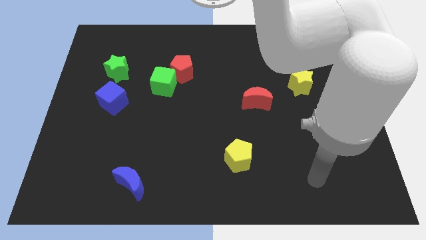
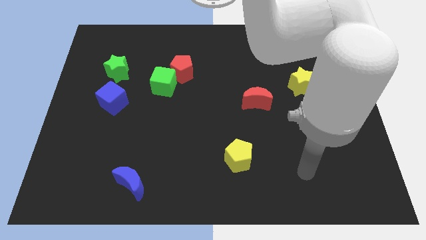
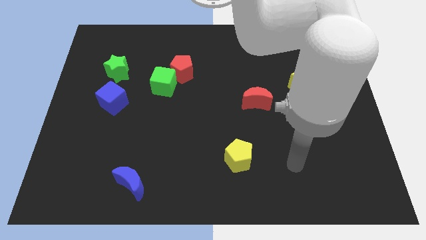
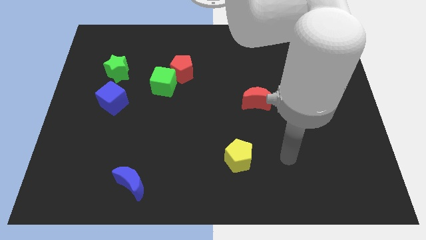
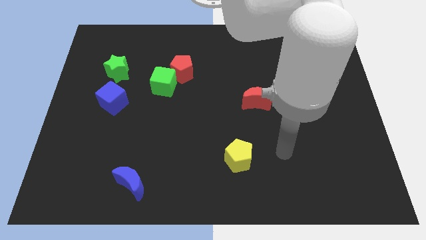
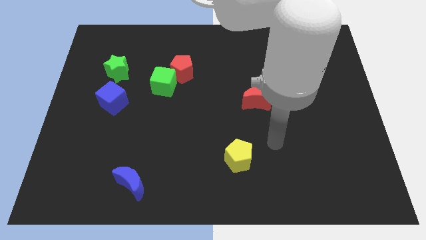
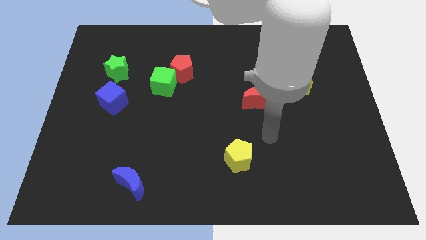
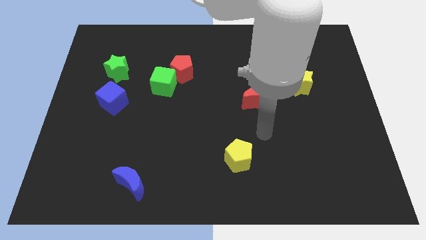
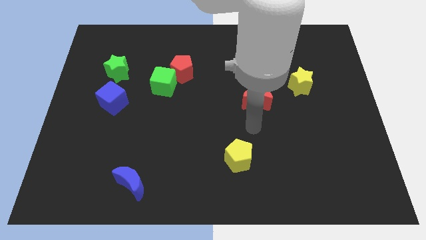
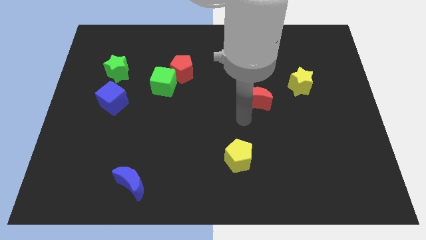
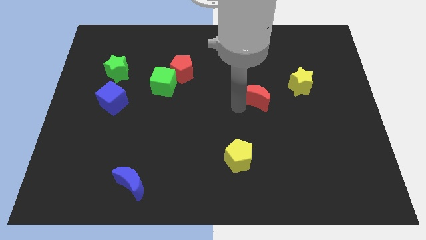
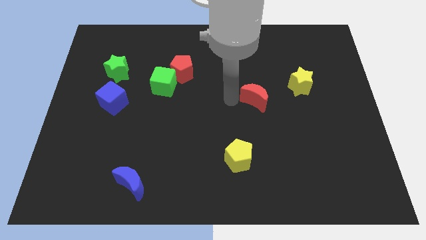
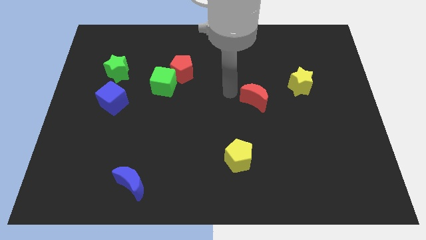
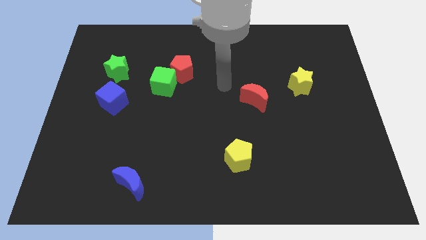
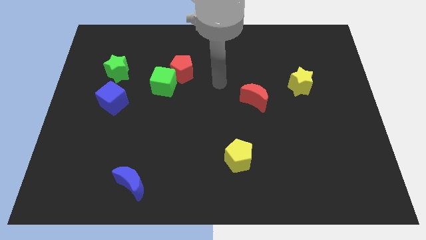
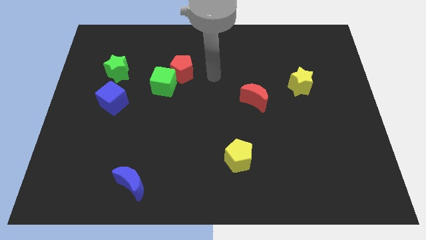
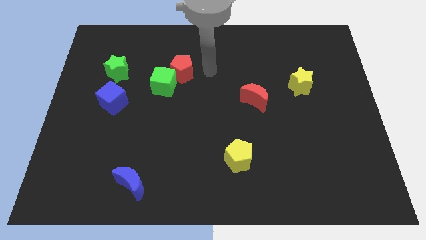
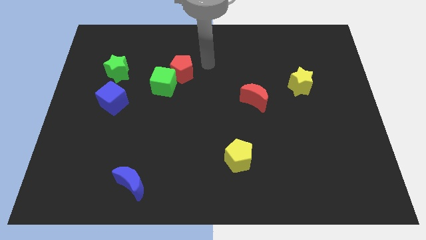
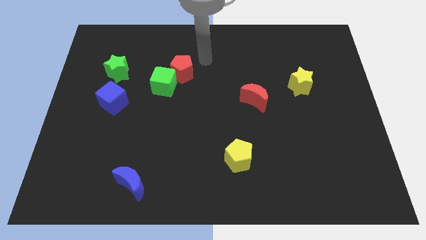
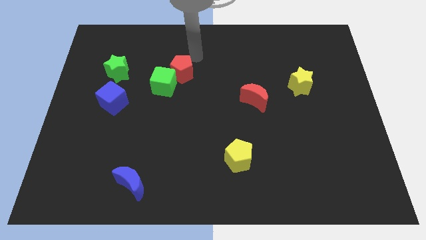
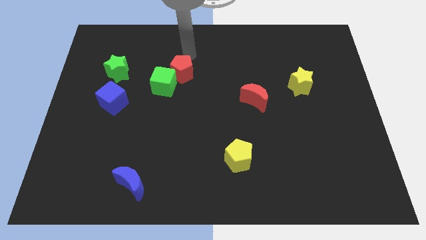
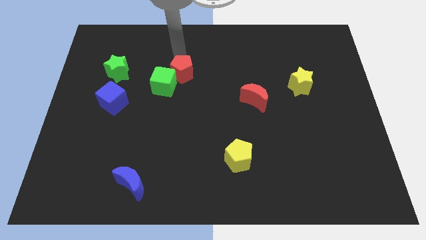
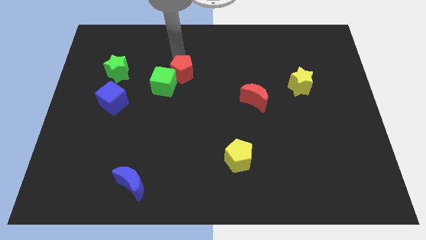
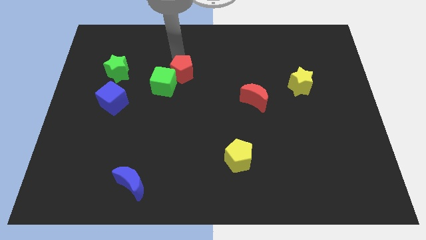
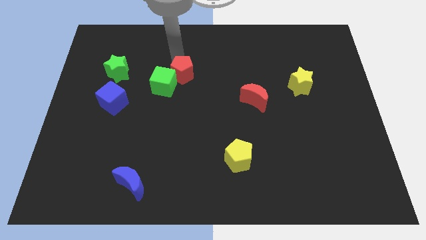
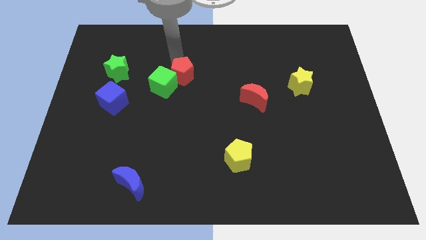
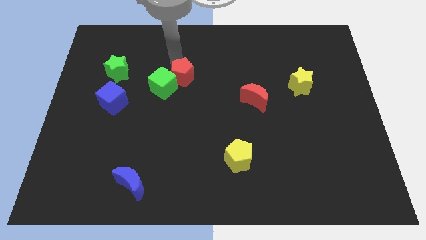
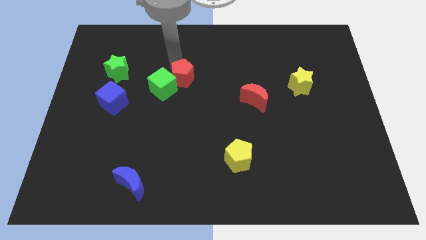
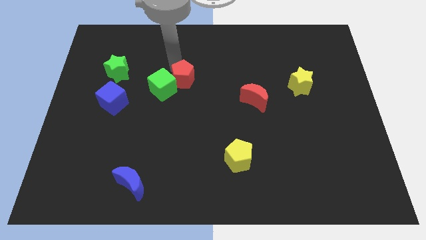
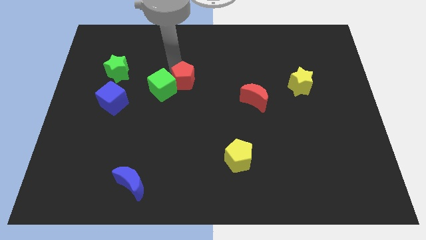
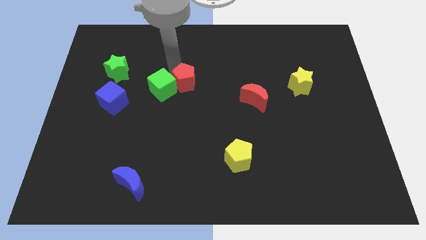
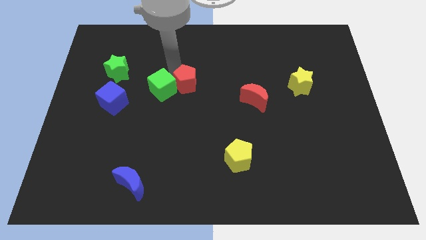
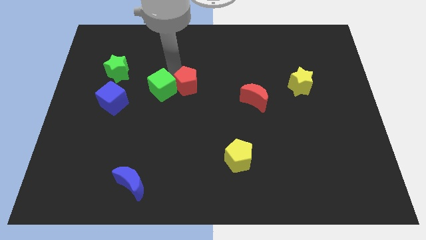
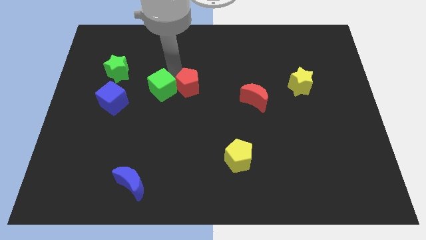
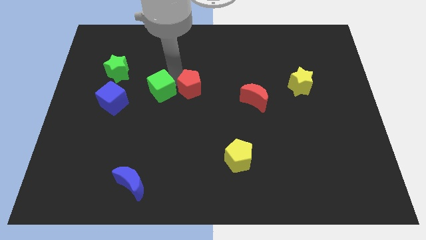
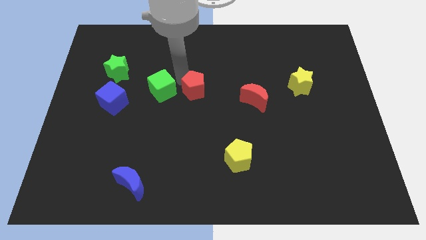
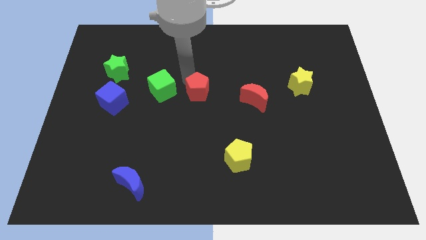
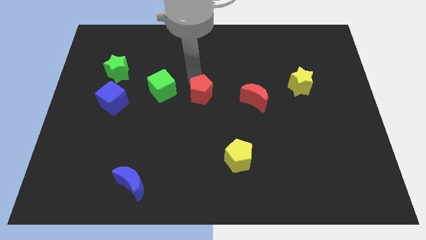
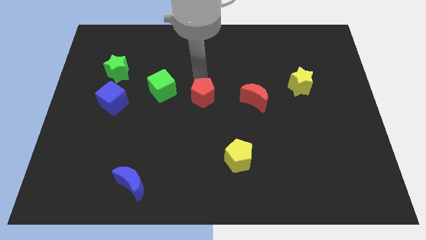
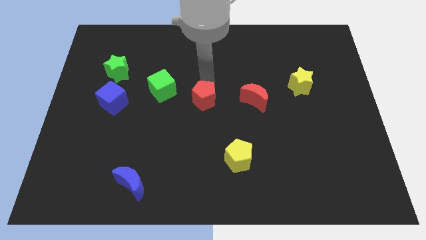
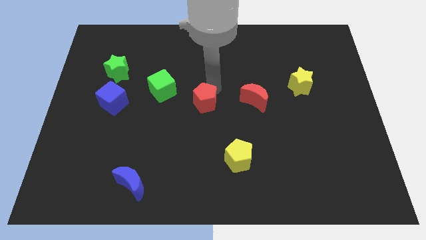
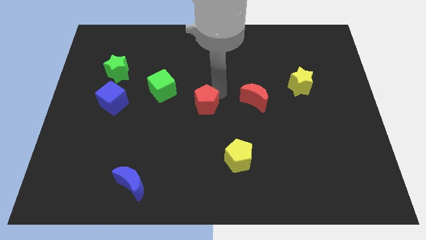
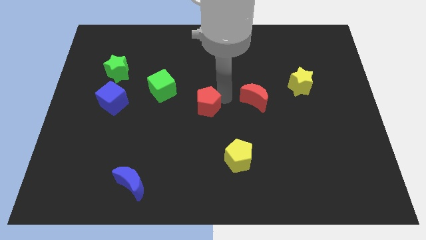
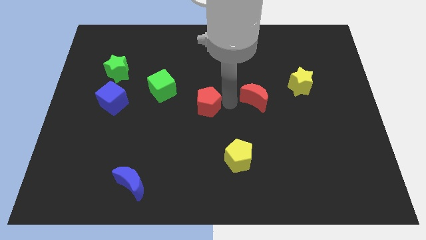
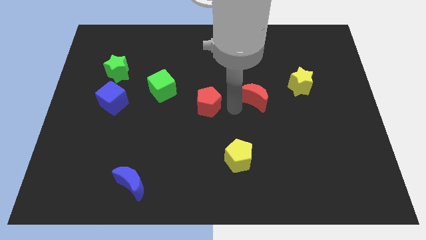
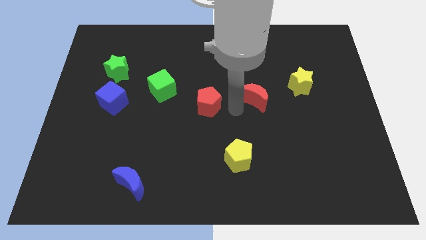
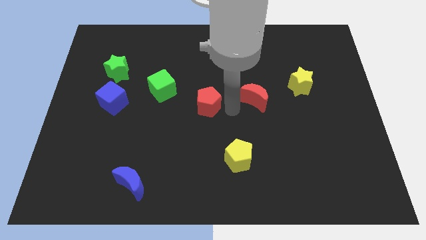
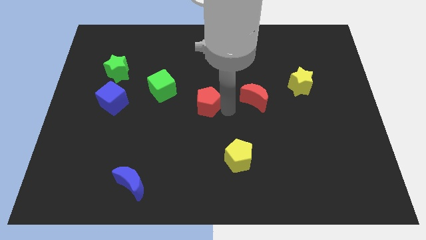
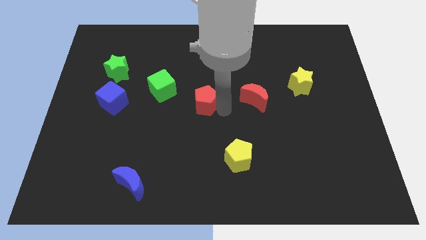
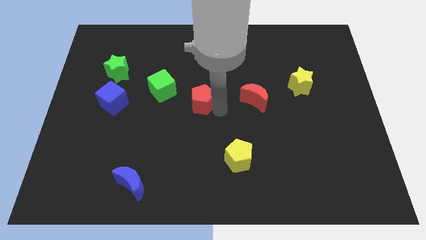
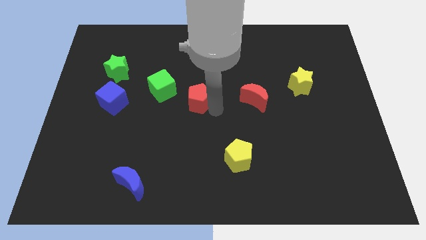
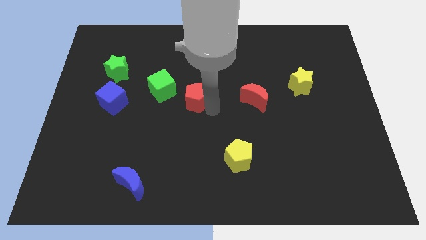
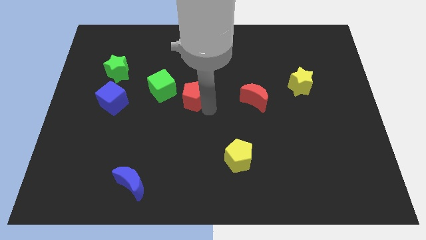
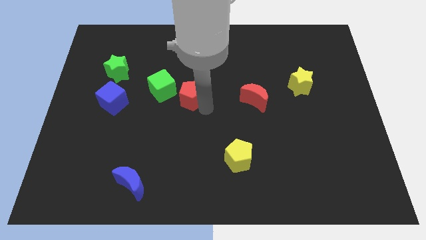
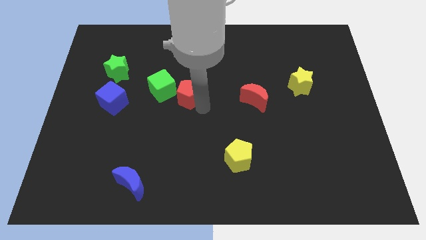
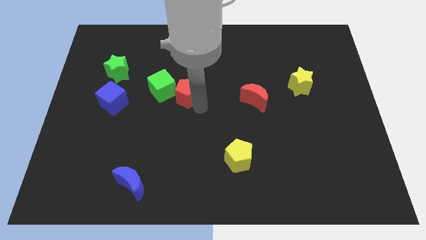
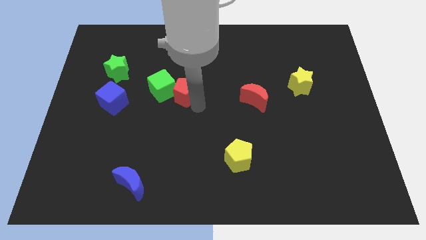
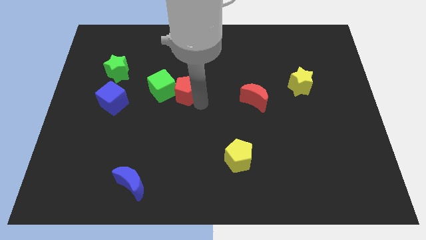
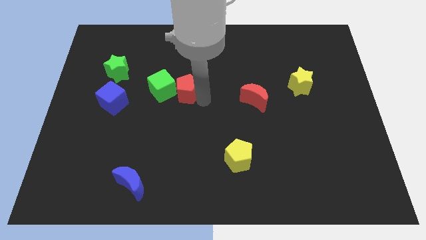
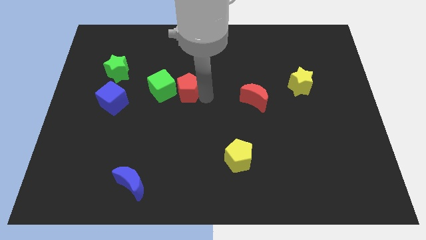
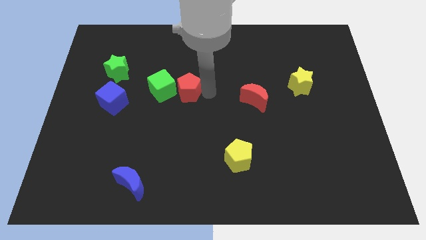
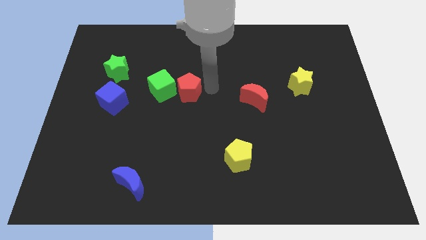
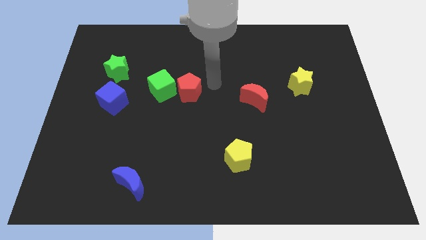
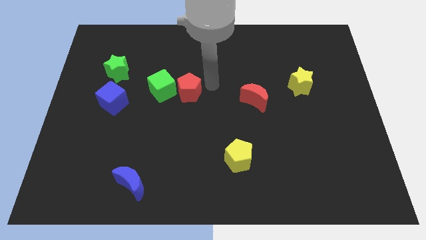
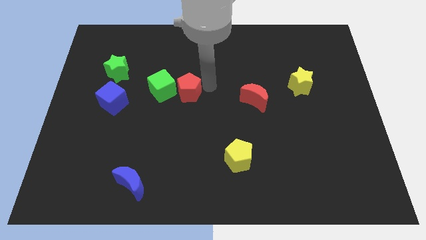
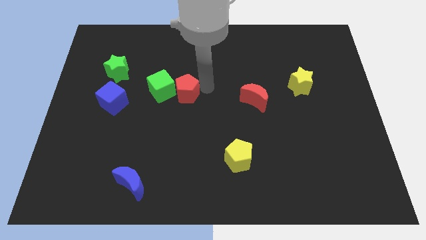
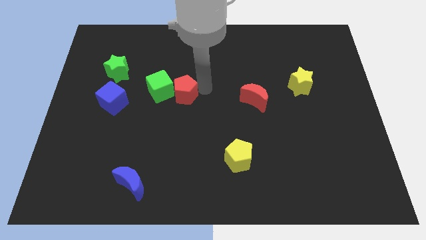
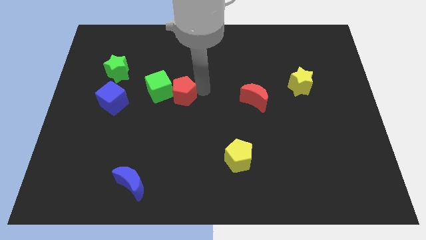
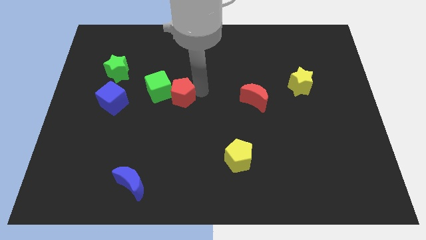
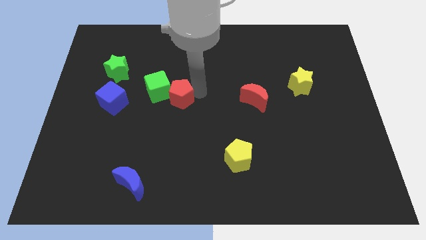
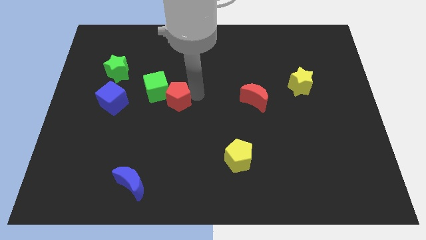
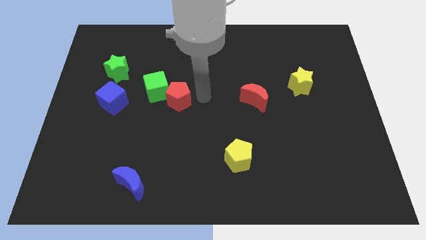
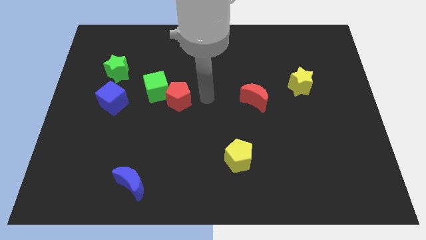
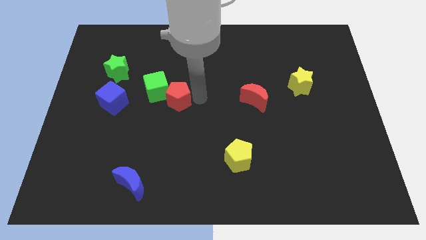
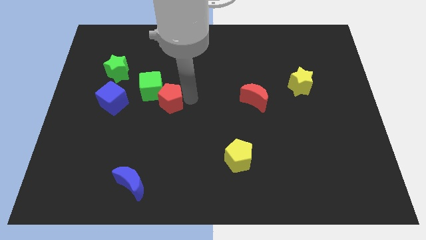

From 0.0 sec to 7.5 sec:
move the red pentagon downwards and left diagonally slightly

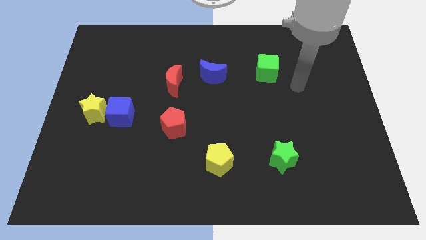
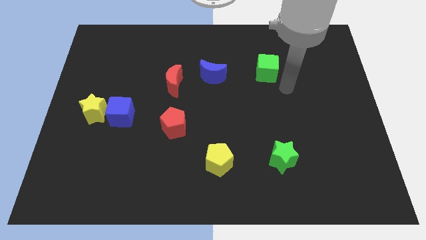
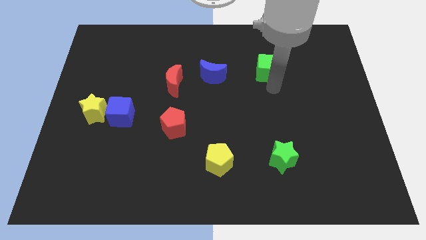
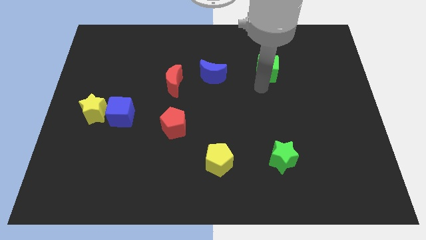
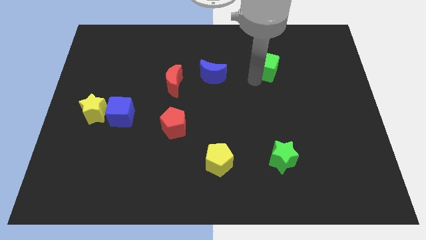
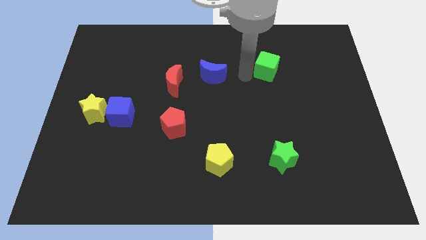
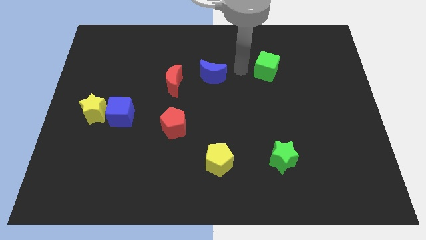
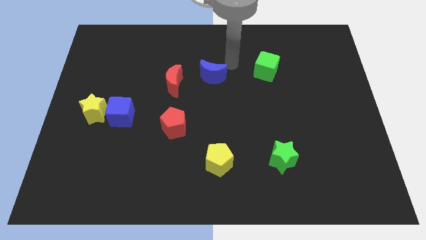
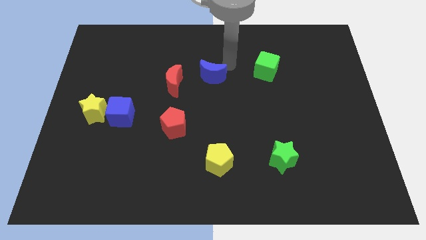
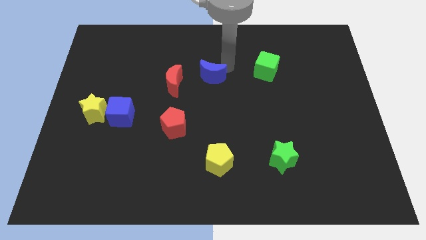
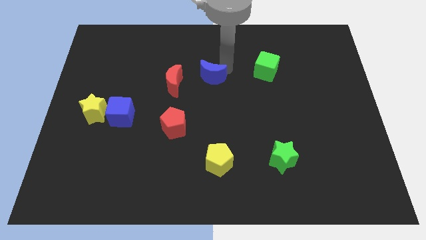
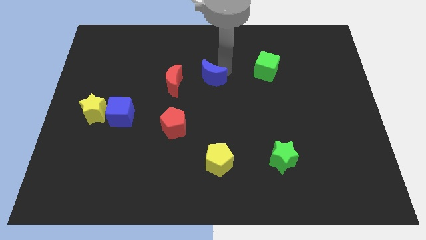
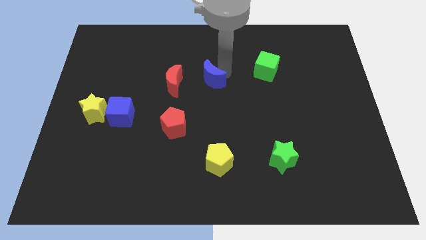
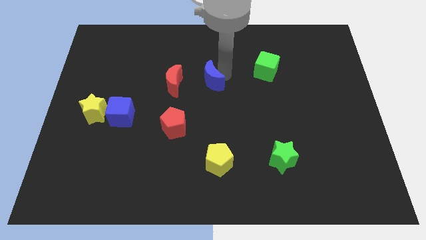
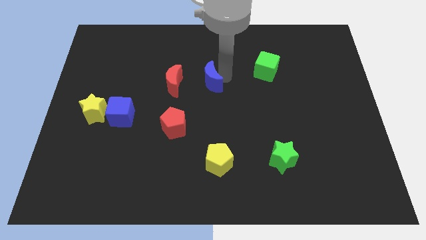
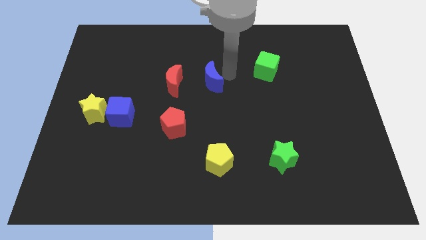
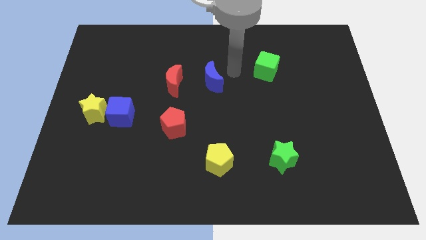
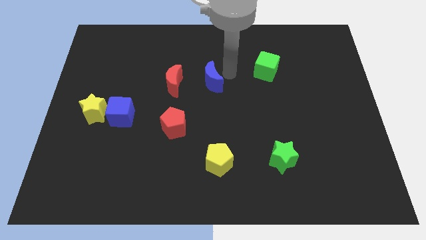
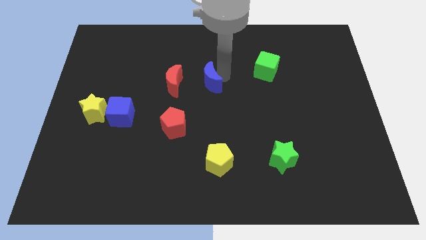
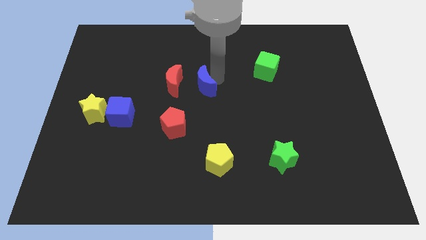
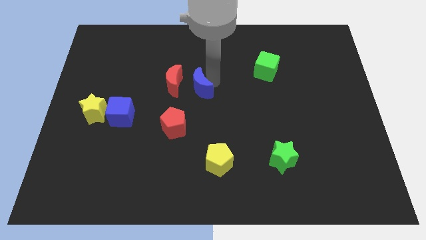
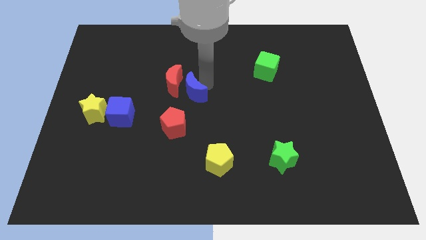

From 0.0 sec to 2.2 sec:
slide the blue moon diagonally down and to the left a bit
